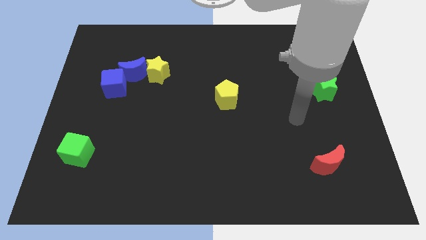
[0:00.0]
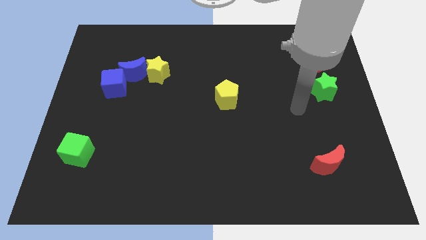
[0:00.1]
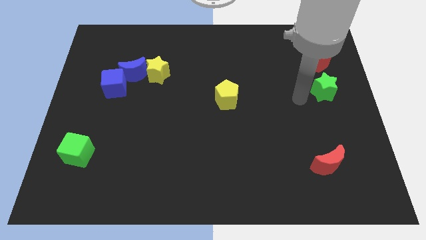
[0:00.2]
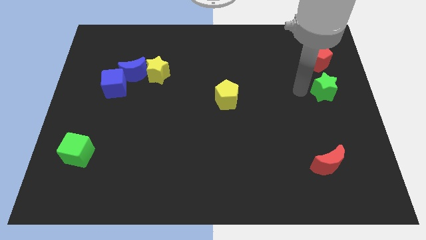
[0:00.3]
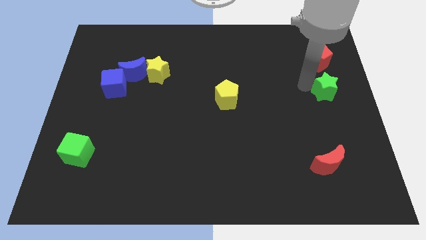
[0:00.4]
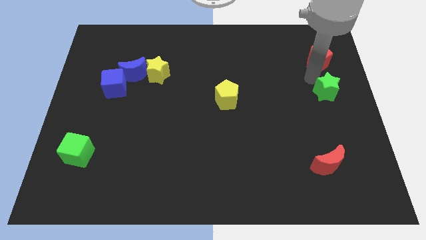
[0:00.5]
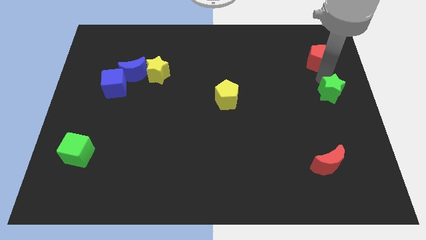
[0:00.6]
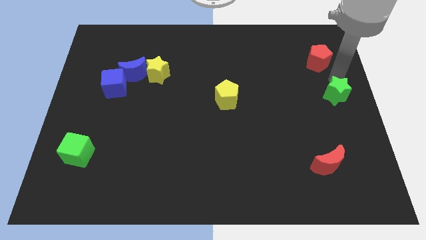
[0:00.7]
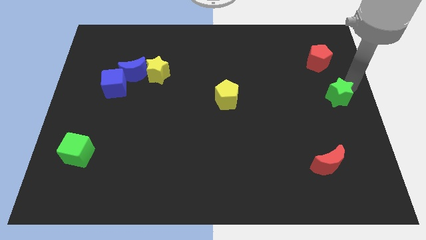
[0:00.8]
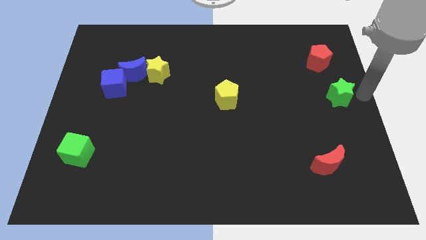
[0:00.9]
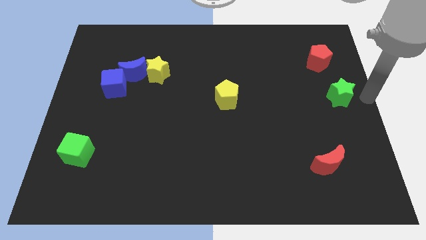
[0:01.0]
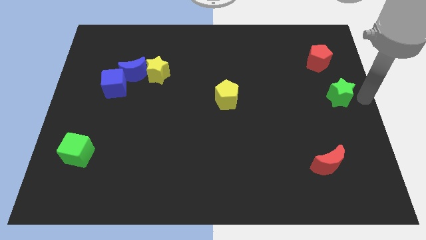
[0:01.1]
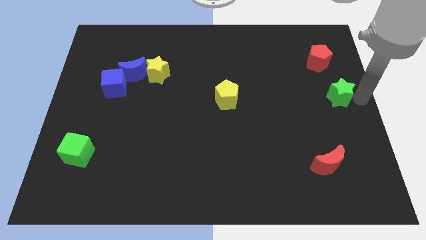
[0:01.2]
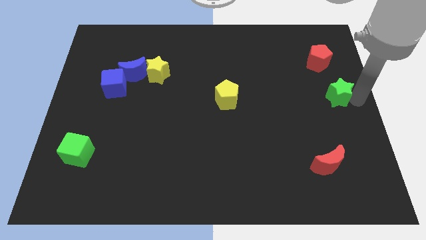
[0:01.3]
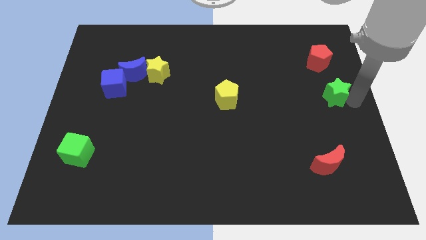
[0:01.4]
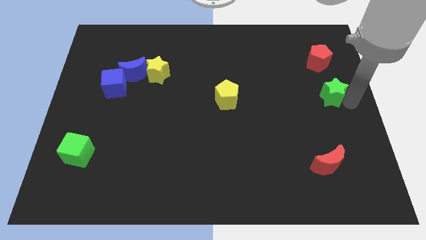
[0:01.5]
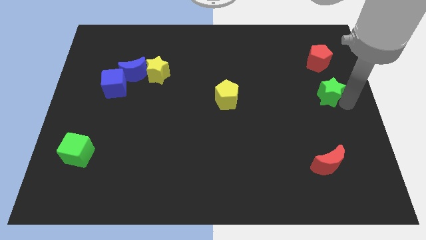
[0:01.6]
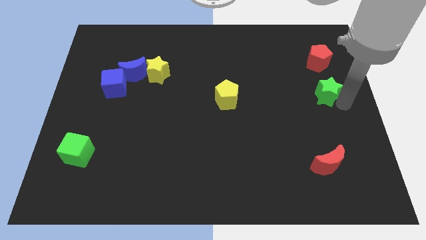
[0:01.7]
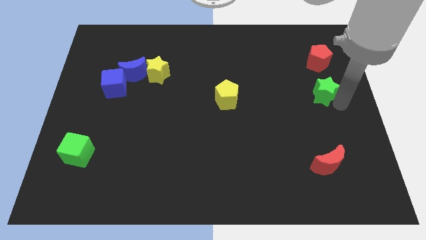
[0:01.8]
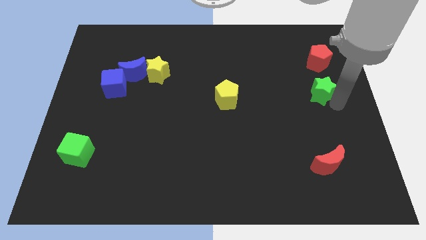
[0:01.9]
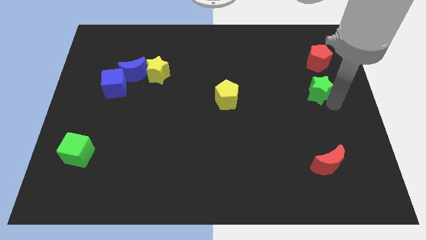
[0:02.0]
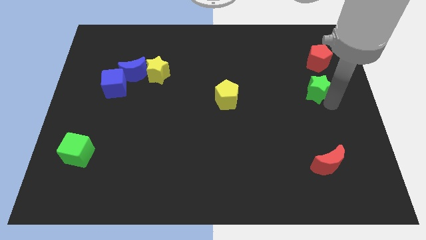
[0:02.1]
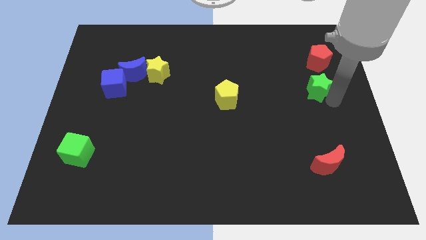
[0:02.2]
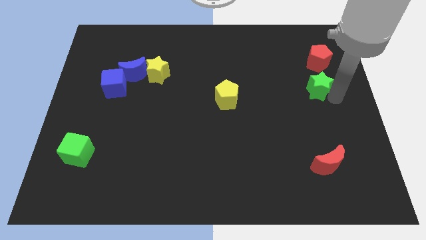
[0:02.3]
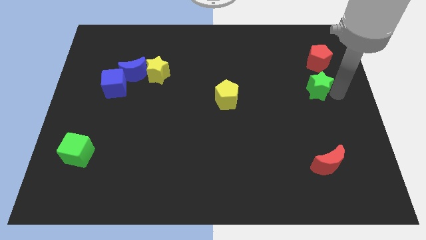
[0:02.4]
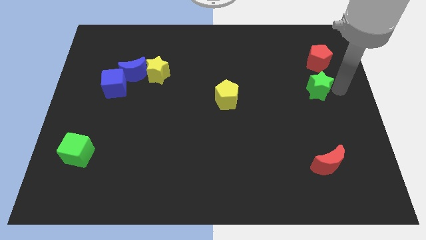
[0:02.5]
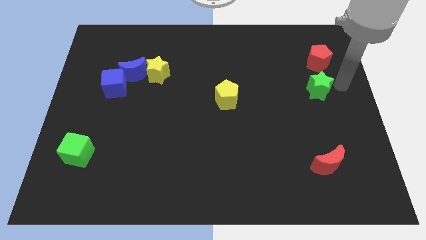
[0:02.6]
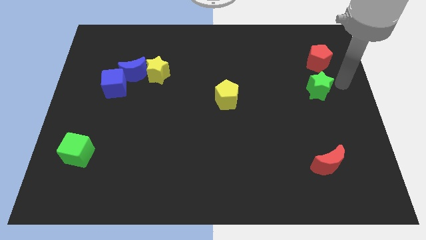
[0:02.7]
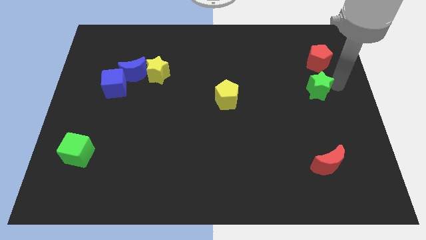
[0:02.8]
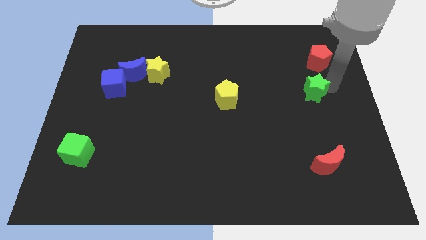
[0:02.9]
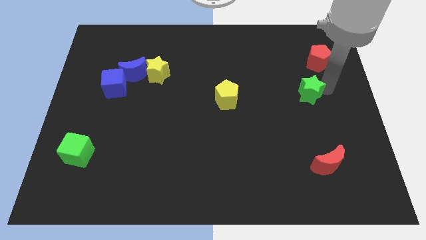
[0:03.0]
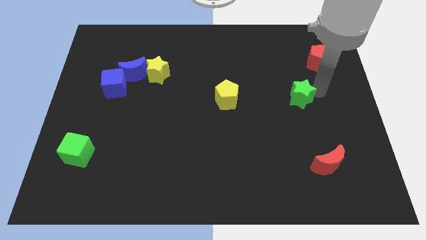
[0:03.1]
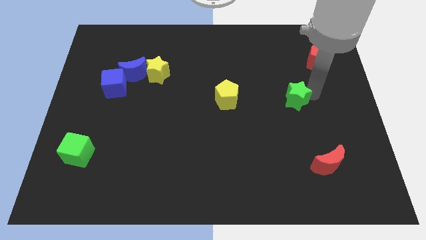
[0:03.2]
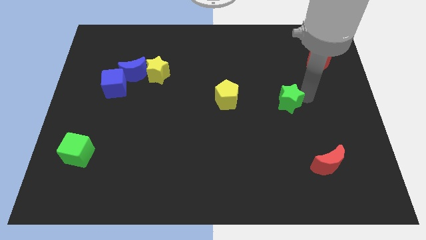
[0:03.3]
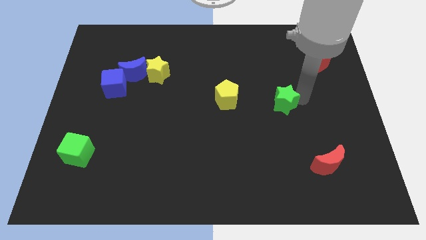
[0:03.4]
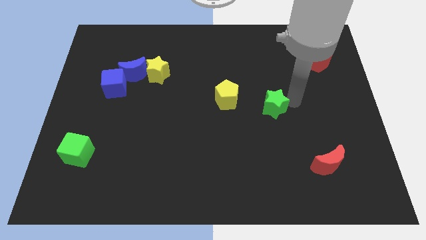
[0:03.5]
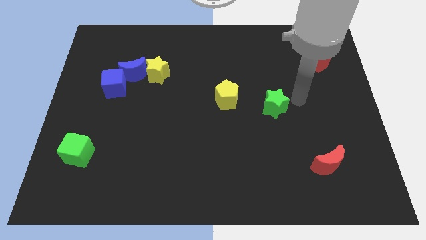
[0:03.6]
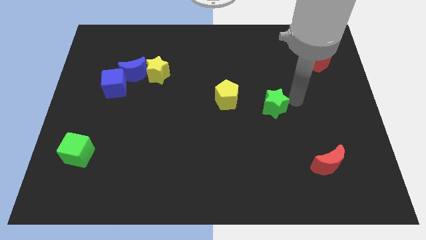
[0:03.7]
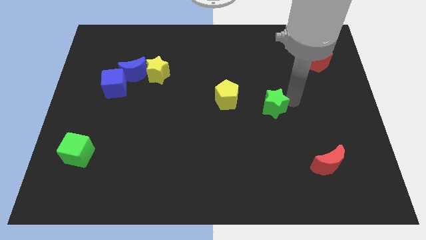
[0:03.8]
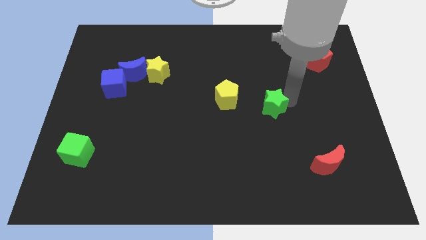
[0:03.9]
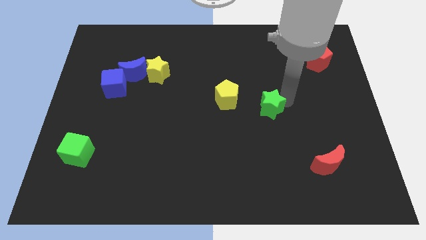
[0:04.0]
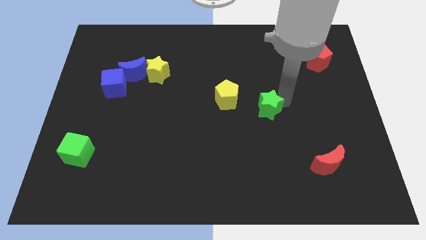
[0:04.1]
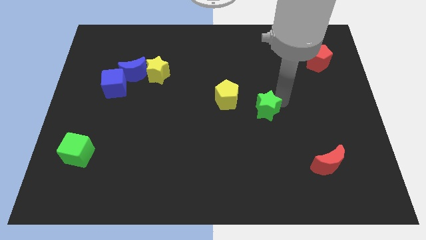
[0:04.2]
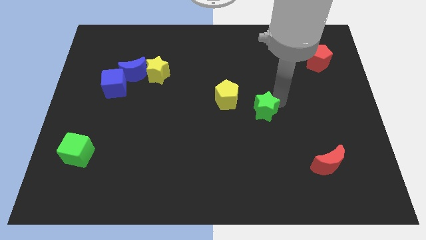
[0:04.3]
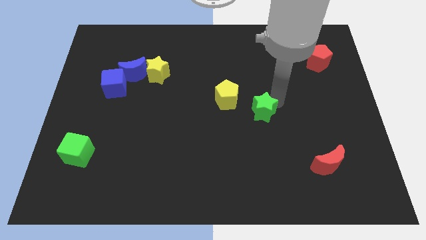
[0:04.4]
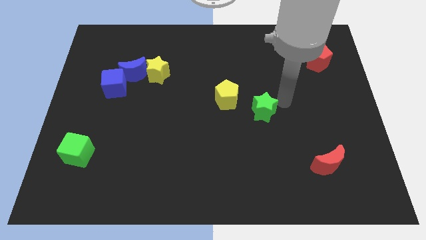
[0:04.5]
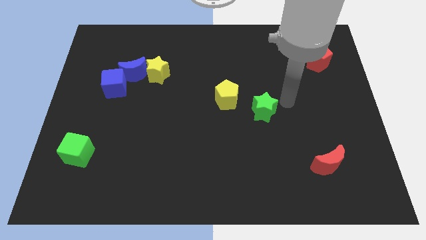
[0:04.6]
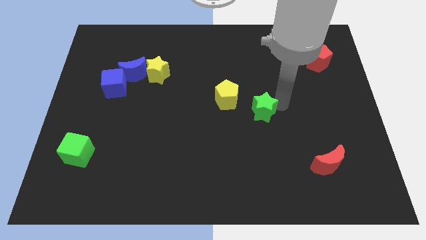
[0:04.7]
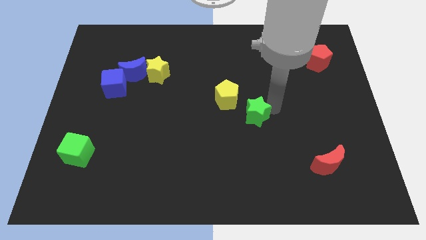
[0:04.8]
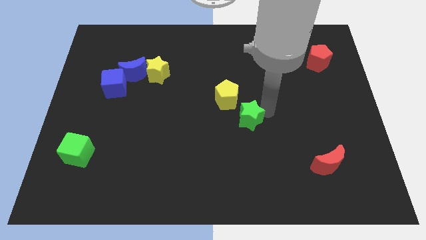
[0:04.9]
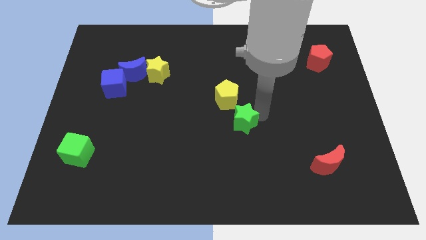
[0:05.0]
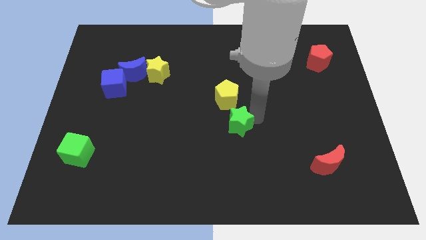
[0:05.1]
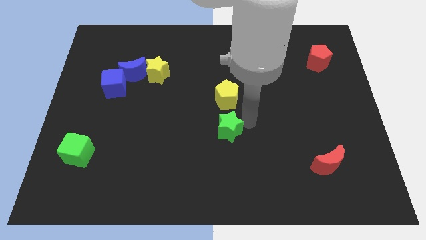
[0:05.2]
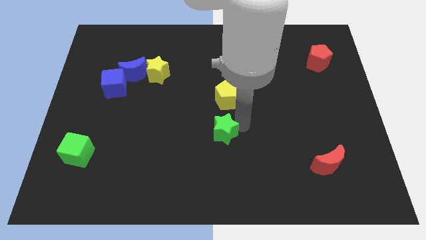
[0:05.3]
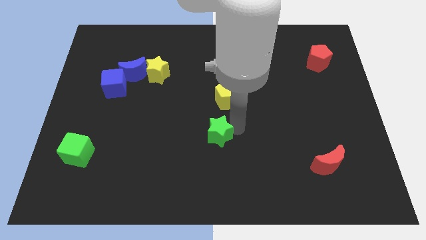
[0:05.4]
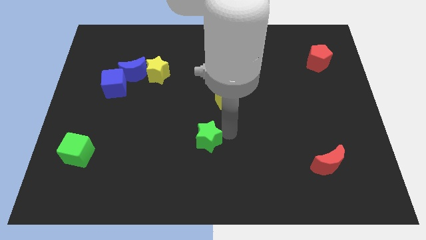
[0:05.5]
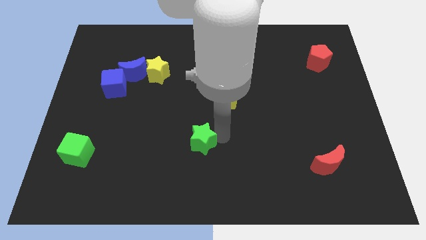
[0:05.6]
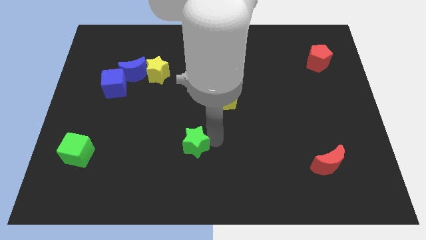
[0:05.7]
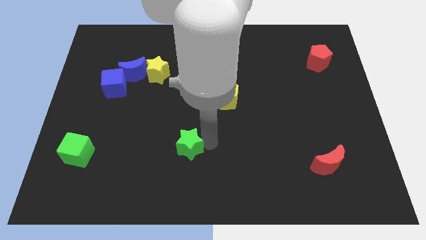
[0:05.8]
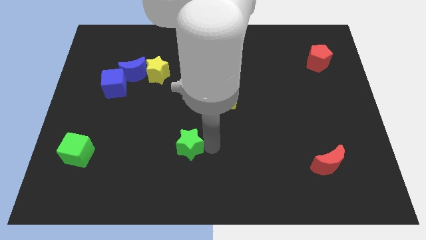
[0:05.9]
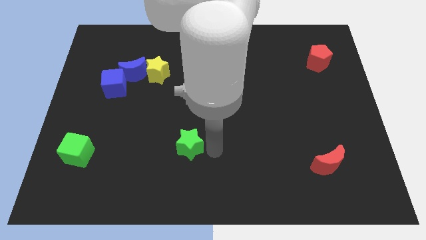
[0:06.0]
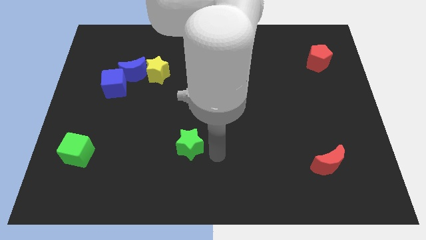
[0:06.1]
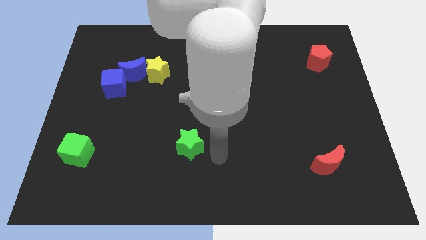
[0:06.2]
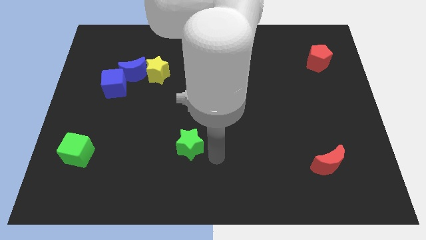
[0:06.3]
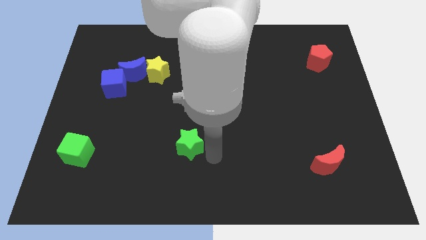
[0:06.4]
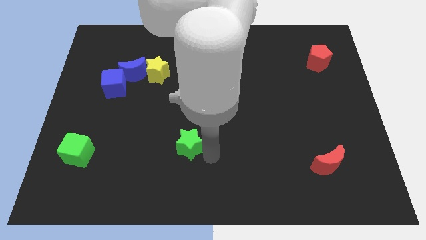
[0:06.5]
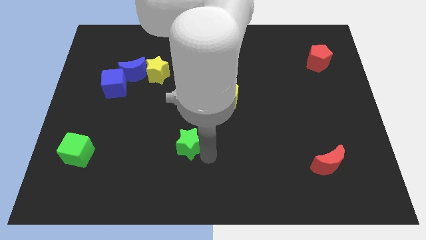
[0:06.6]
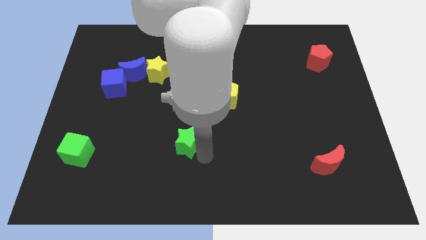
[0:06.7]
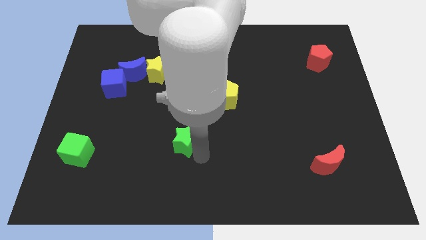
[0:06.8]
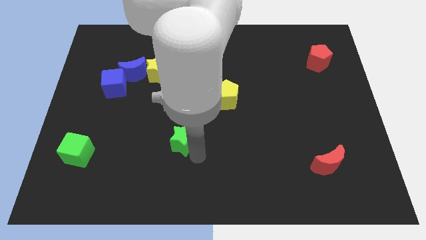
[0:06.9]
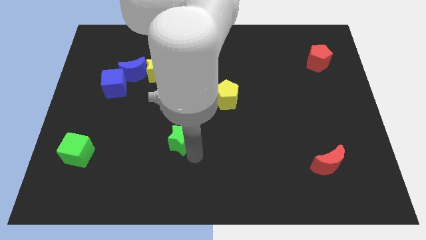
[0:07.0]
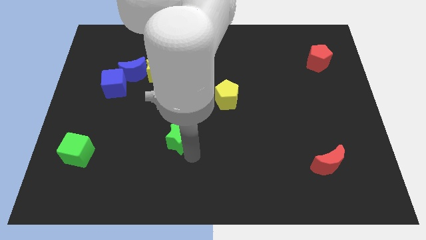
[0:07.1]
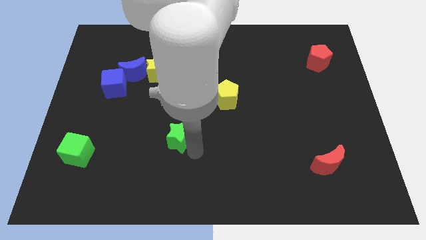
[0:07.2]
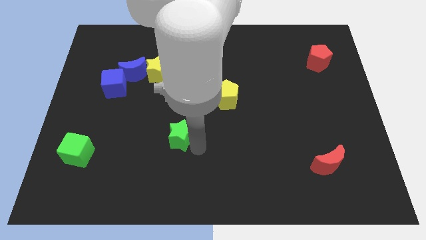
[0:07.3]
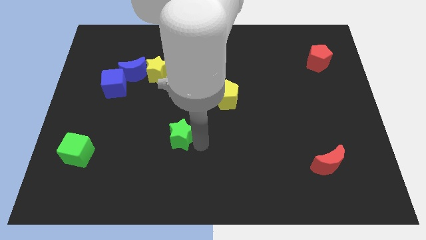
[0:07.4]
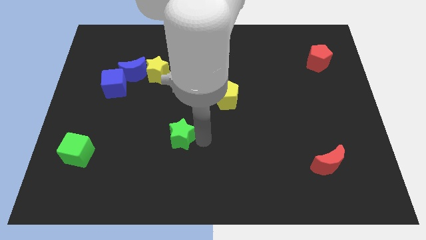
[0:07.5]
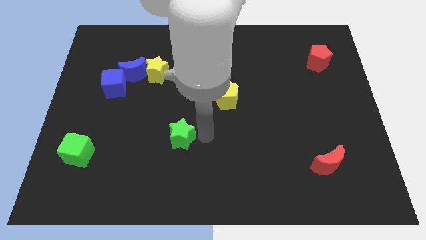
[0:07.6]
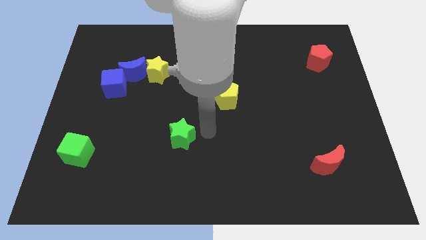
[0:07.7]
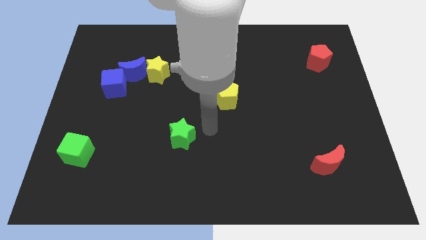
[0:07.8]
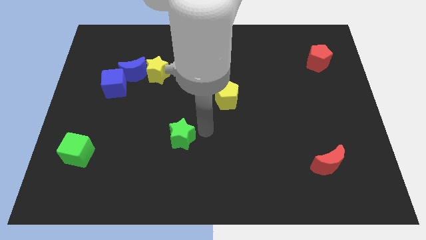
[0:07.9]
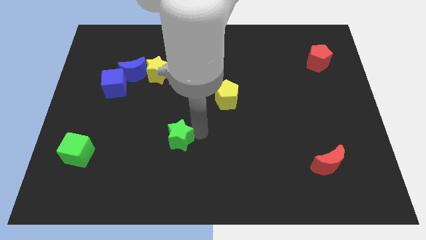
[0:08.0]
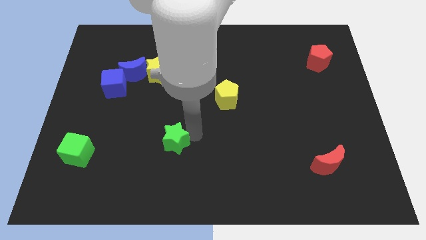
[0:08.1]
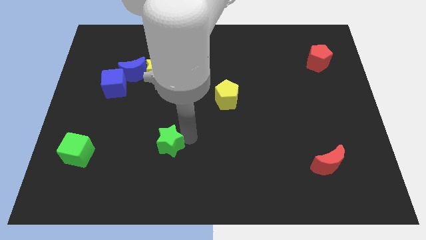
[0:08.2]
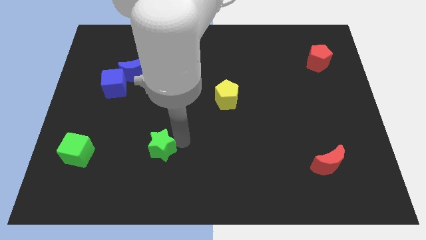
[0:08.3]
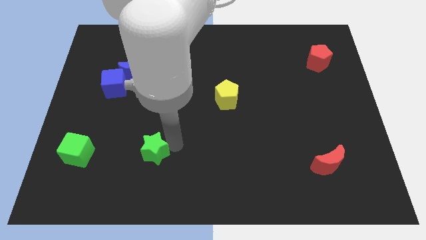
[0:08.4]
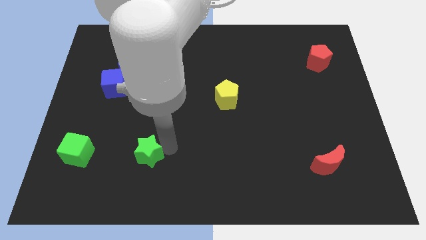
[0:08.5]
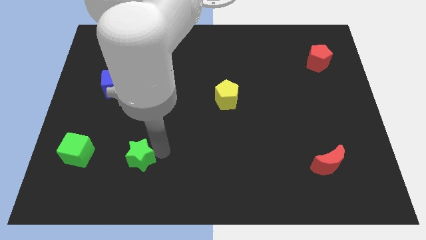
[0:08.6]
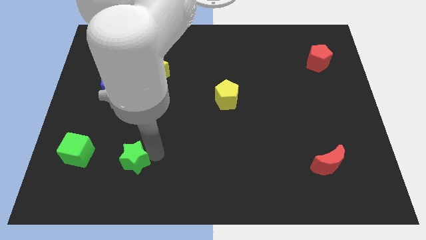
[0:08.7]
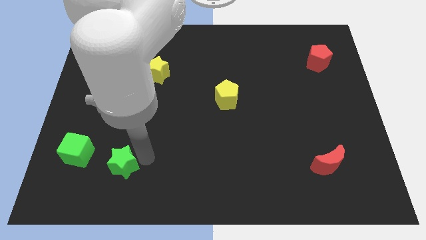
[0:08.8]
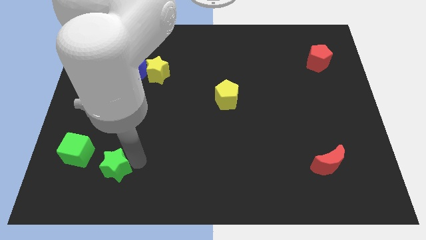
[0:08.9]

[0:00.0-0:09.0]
move the green star to the bottom right side of the green cube
